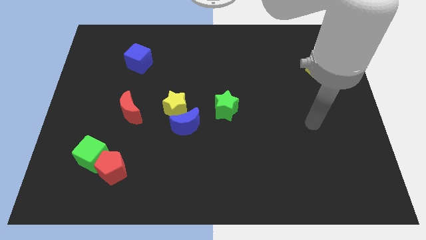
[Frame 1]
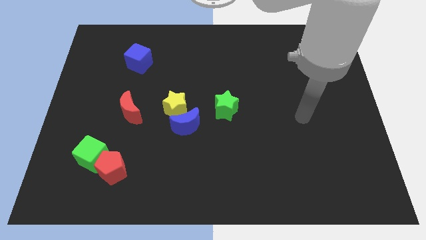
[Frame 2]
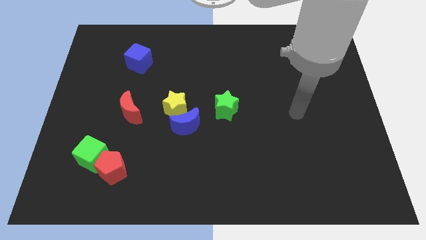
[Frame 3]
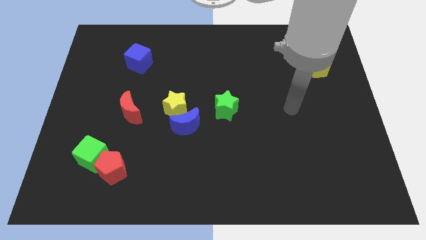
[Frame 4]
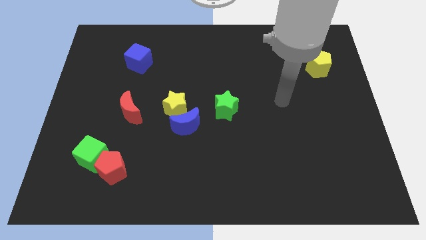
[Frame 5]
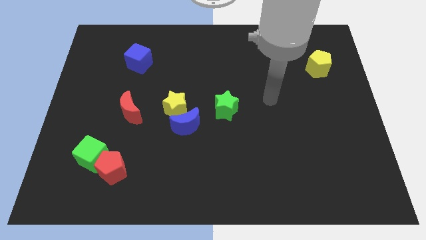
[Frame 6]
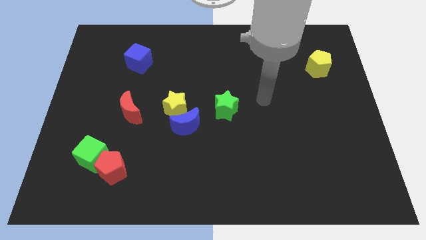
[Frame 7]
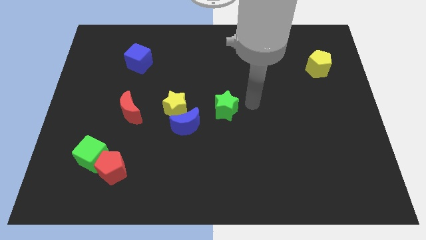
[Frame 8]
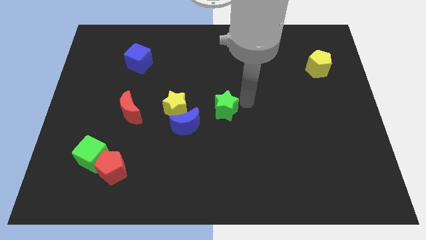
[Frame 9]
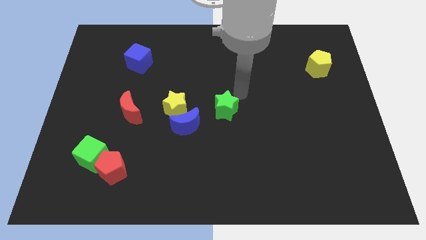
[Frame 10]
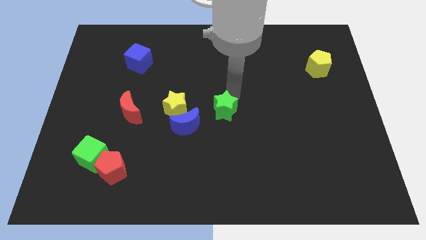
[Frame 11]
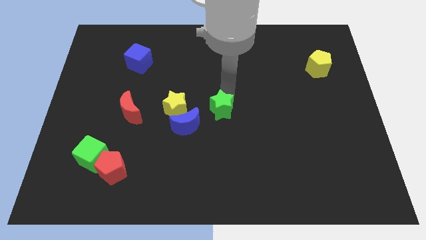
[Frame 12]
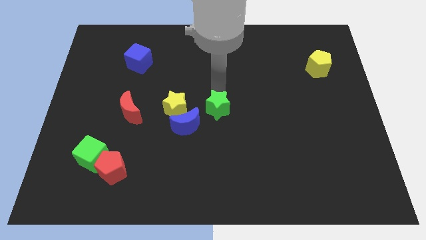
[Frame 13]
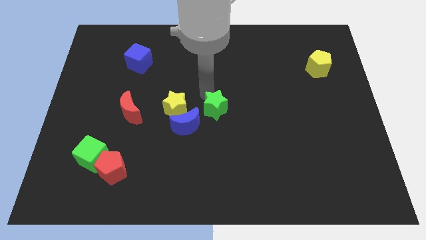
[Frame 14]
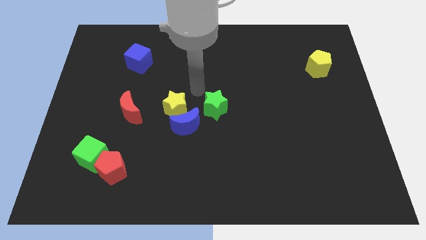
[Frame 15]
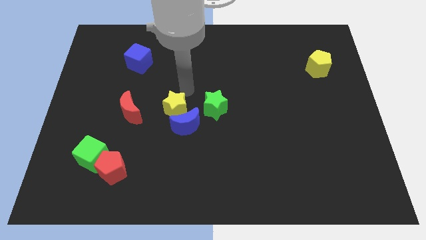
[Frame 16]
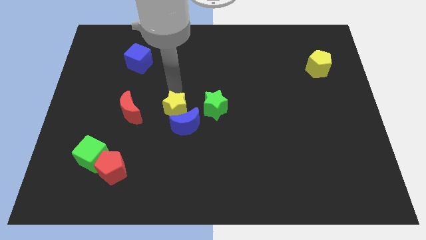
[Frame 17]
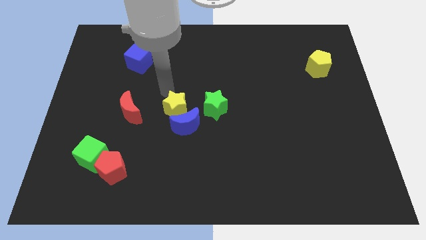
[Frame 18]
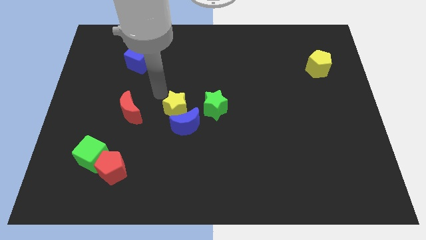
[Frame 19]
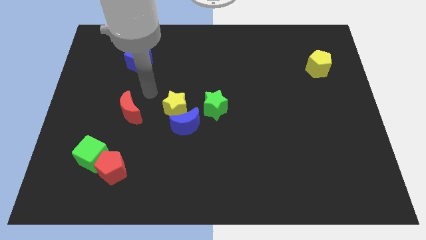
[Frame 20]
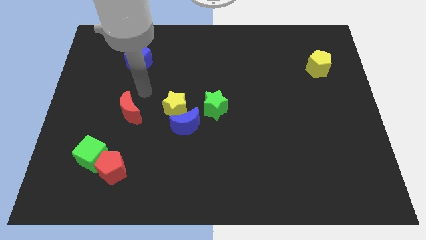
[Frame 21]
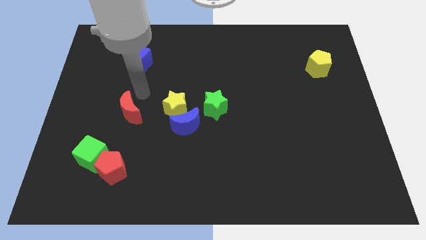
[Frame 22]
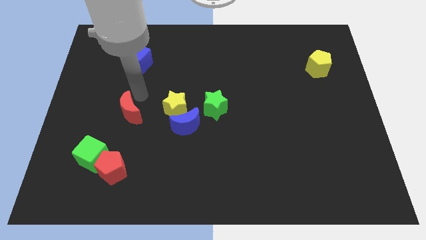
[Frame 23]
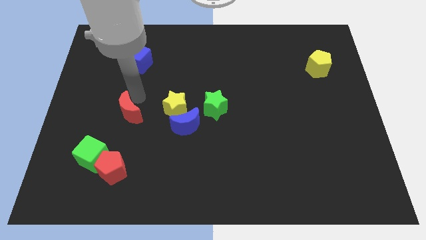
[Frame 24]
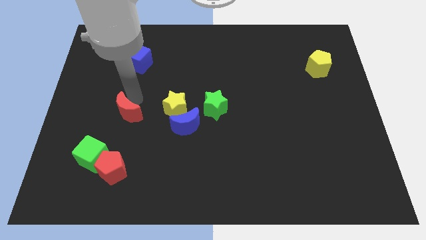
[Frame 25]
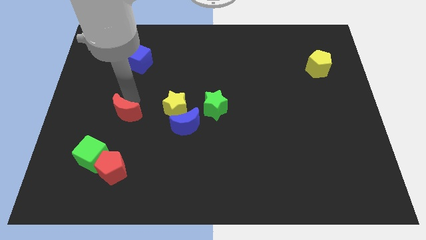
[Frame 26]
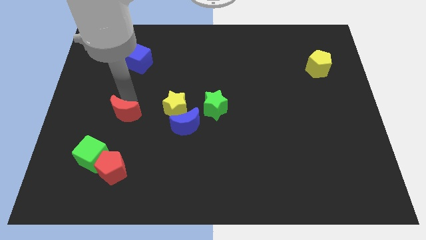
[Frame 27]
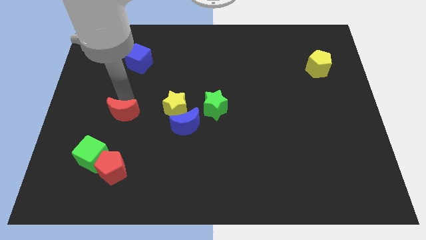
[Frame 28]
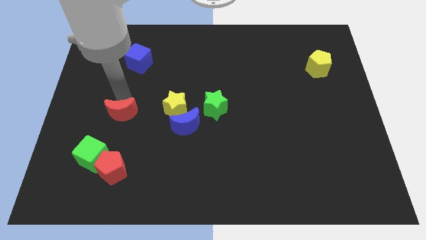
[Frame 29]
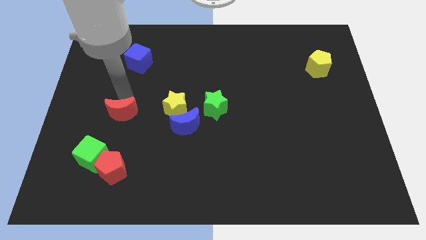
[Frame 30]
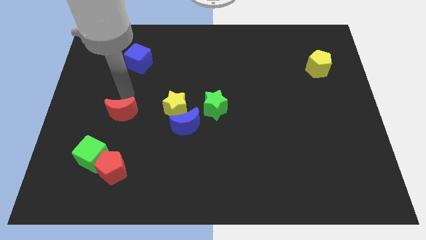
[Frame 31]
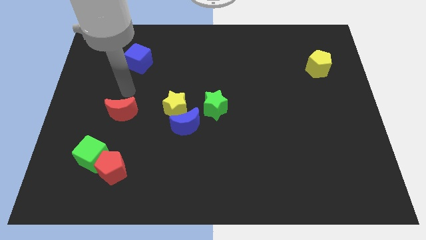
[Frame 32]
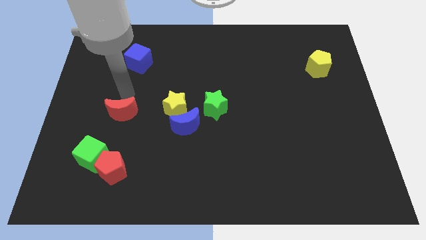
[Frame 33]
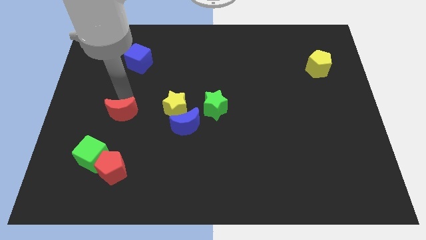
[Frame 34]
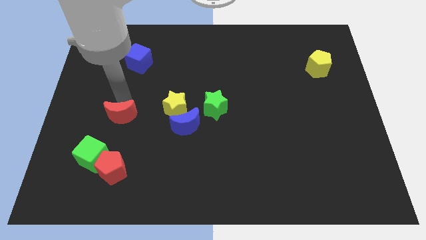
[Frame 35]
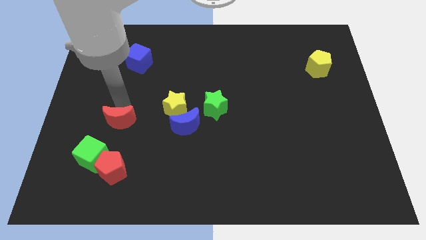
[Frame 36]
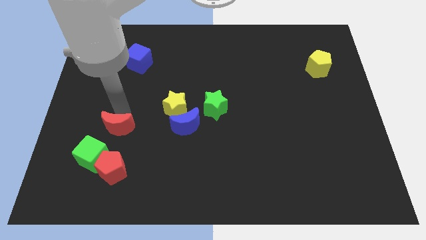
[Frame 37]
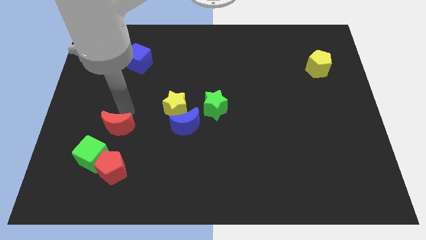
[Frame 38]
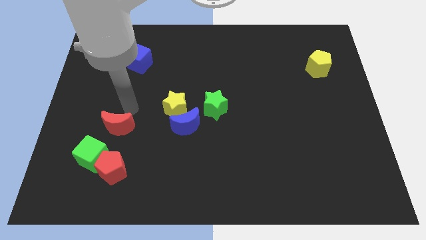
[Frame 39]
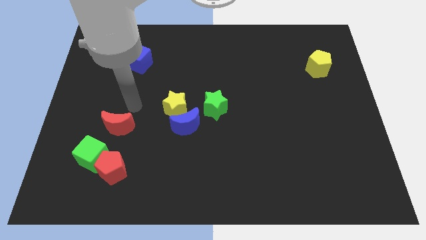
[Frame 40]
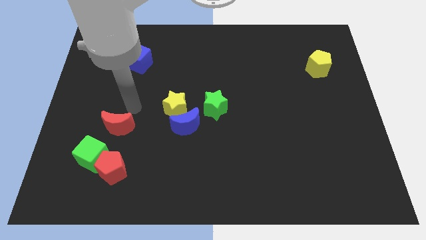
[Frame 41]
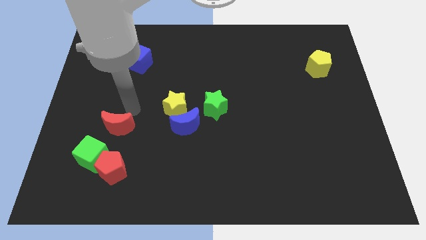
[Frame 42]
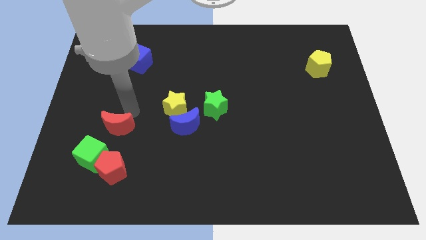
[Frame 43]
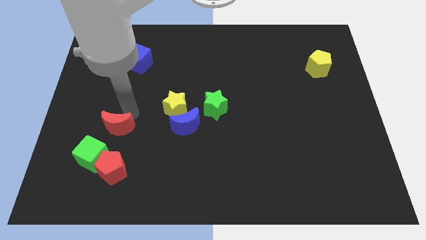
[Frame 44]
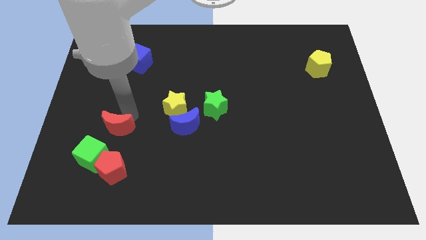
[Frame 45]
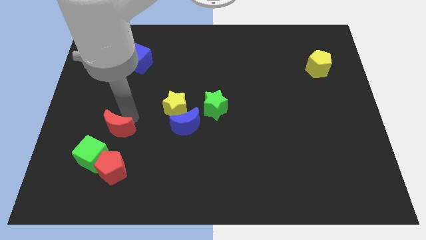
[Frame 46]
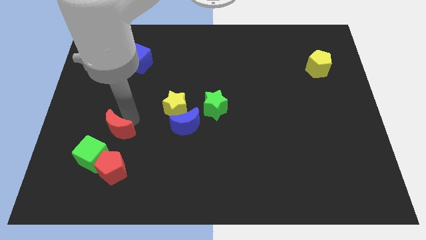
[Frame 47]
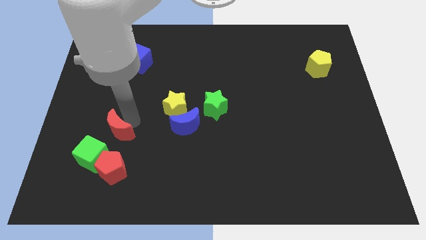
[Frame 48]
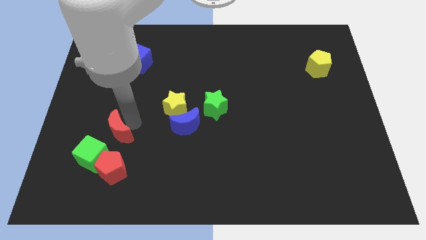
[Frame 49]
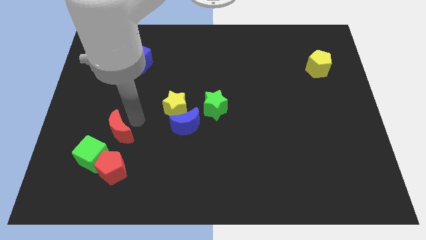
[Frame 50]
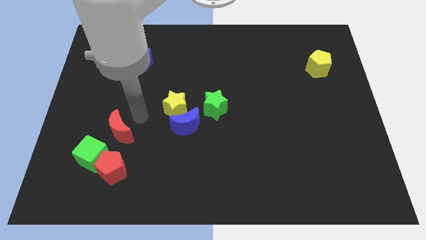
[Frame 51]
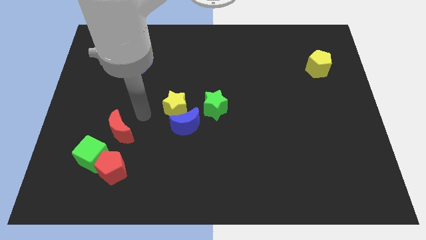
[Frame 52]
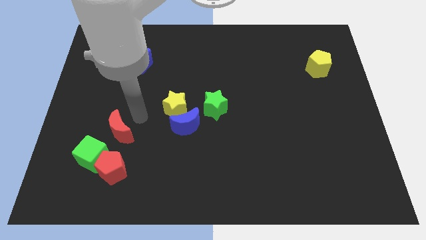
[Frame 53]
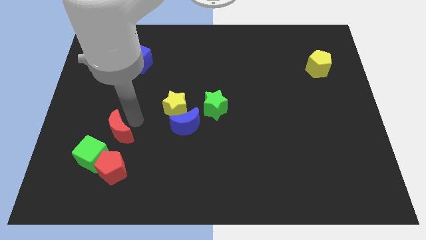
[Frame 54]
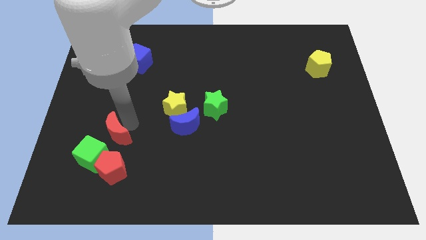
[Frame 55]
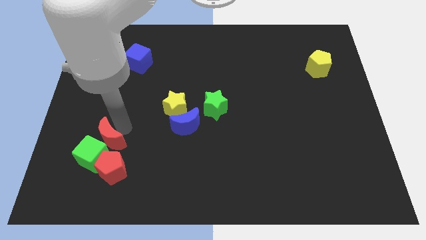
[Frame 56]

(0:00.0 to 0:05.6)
move the red moon close to the green cube

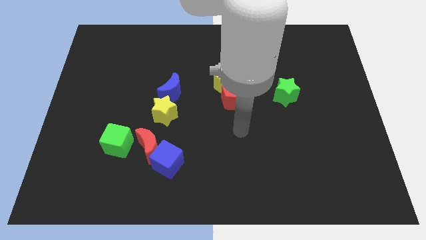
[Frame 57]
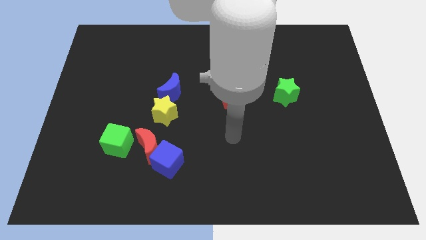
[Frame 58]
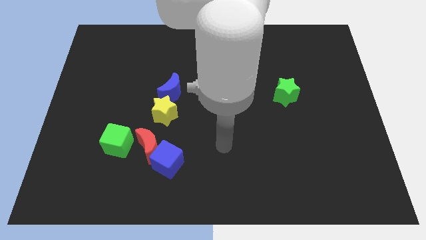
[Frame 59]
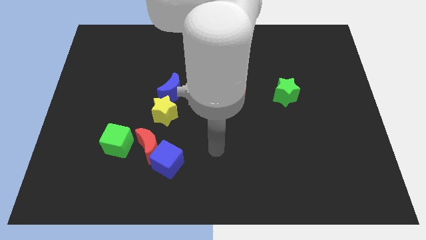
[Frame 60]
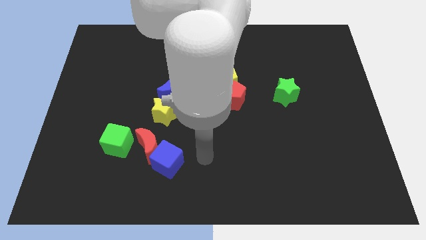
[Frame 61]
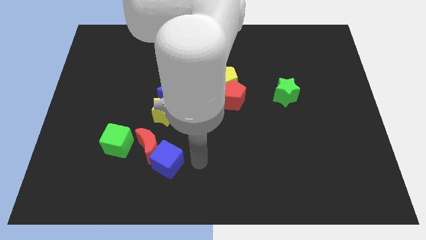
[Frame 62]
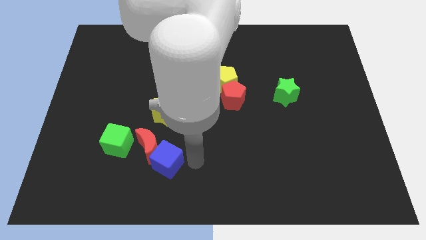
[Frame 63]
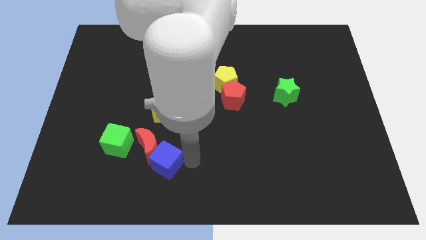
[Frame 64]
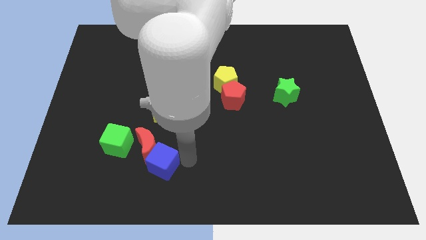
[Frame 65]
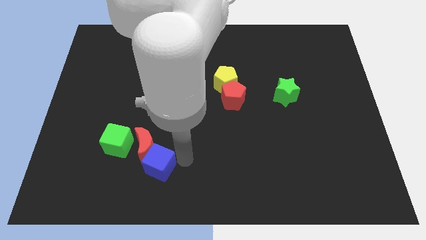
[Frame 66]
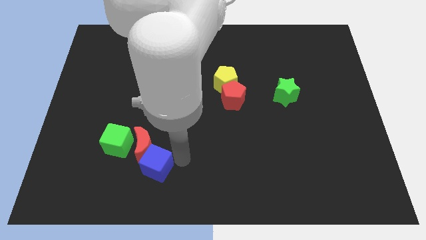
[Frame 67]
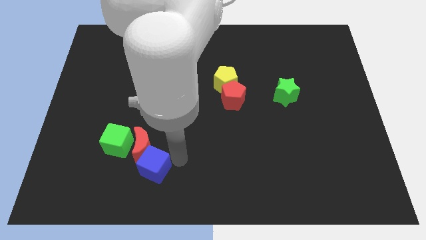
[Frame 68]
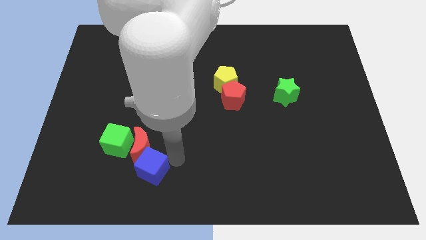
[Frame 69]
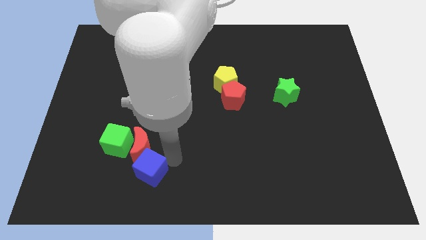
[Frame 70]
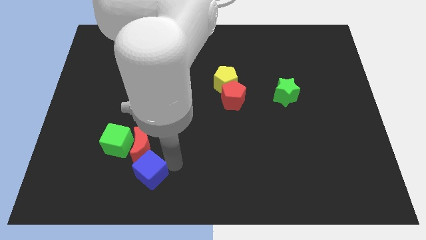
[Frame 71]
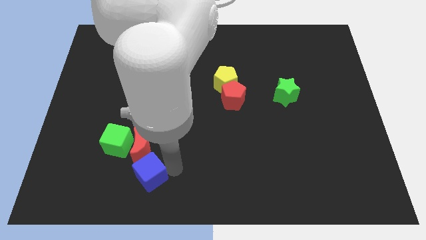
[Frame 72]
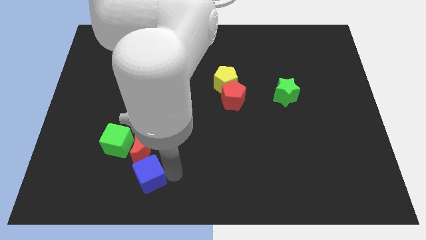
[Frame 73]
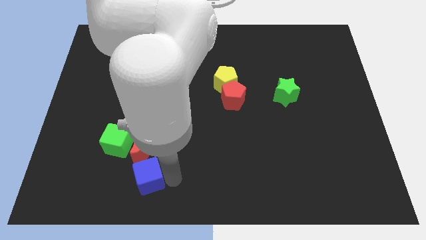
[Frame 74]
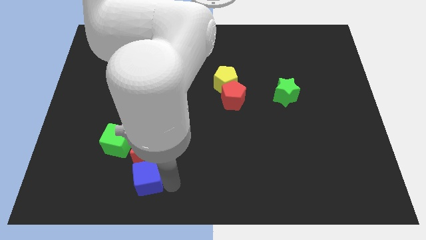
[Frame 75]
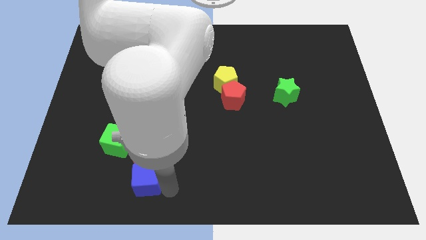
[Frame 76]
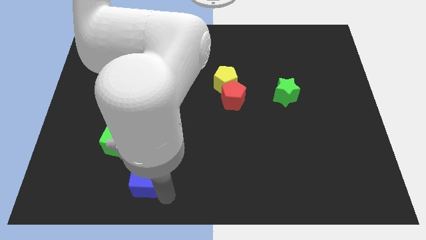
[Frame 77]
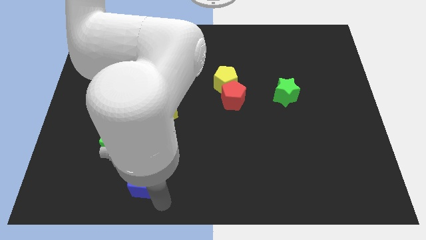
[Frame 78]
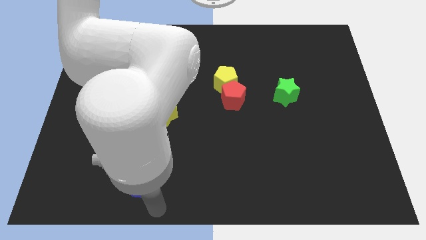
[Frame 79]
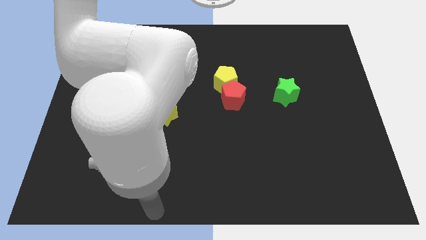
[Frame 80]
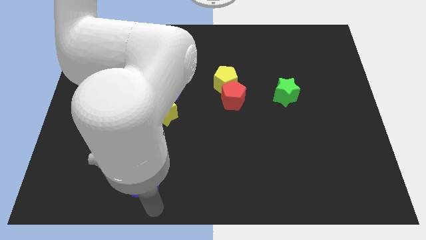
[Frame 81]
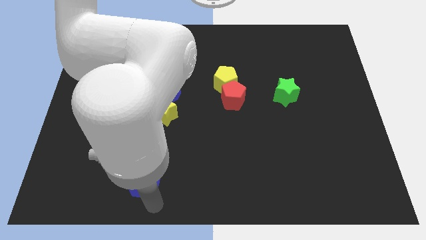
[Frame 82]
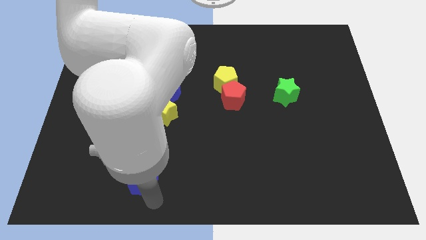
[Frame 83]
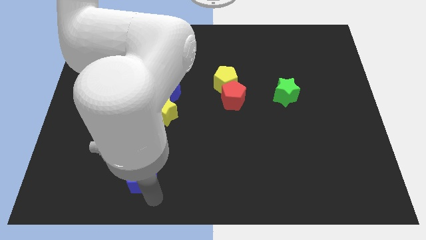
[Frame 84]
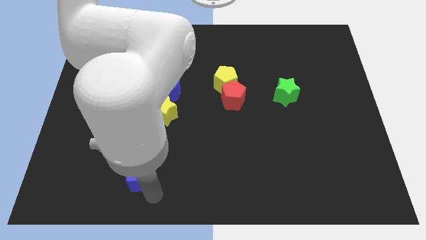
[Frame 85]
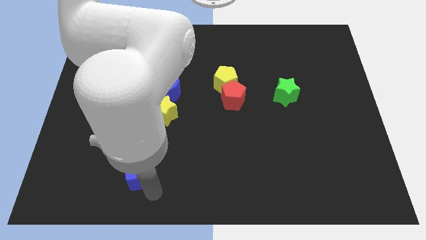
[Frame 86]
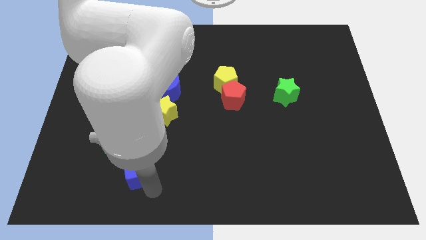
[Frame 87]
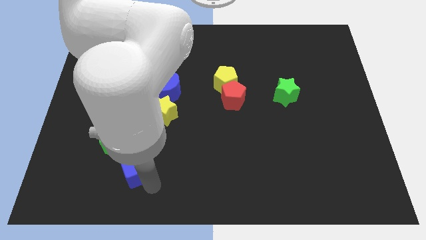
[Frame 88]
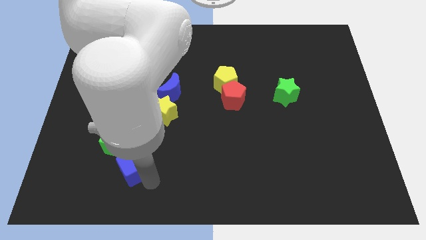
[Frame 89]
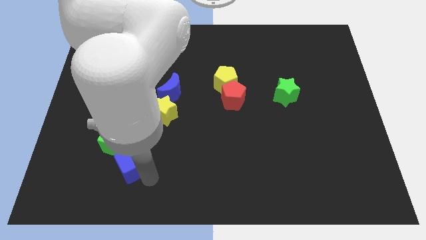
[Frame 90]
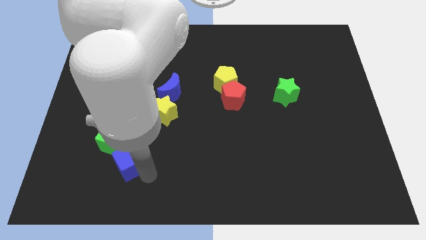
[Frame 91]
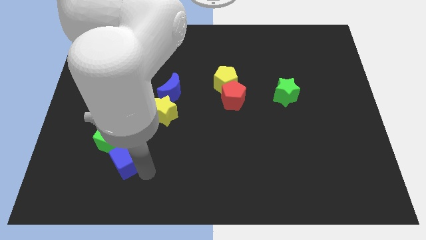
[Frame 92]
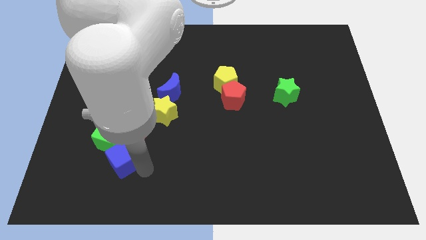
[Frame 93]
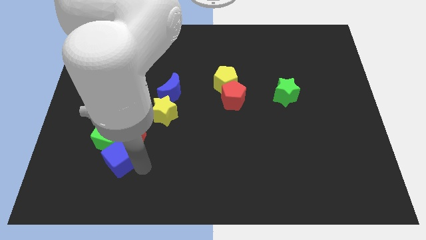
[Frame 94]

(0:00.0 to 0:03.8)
push the blue cube towards the green cube
